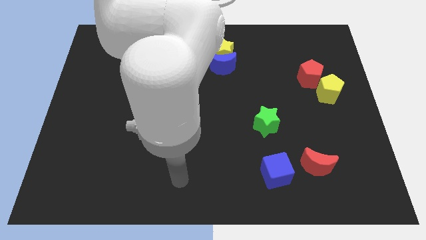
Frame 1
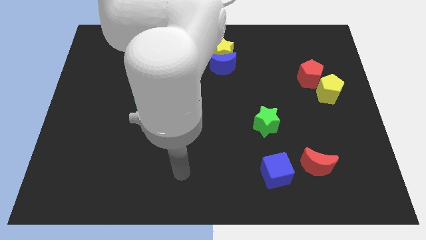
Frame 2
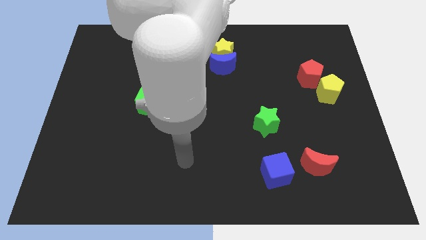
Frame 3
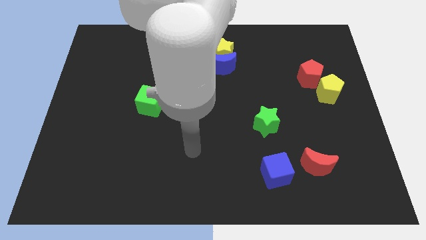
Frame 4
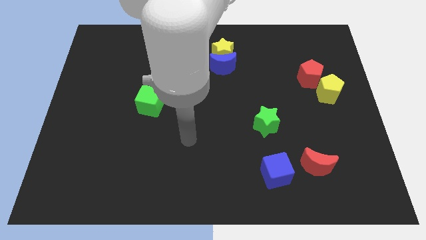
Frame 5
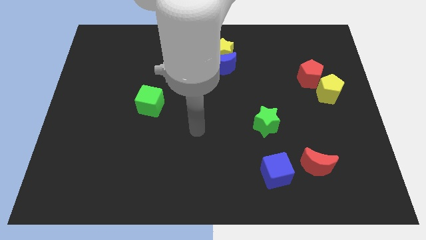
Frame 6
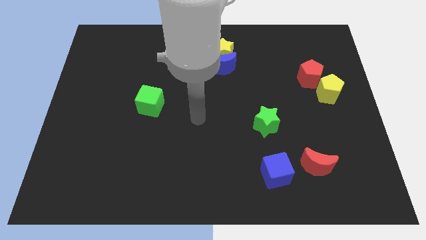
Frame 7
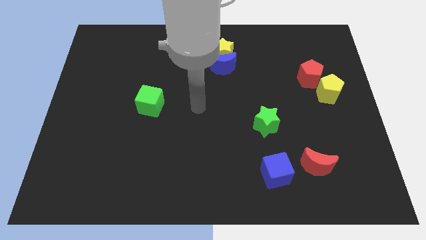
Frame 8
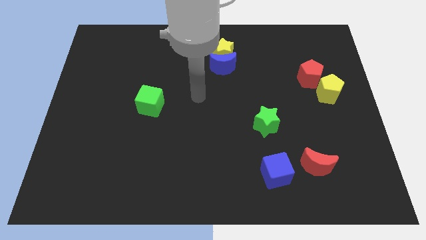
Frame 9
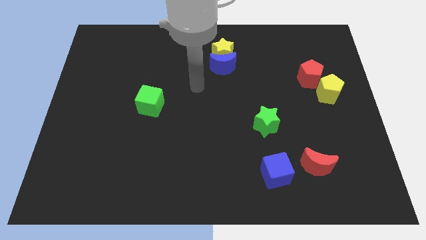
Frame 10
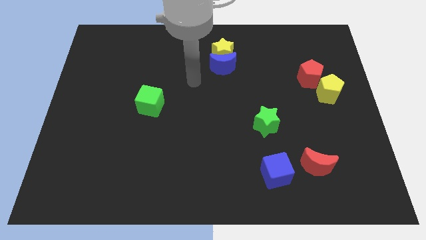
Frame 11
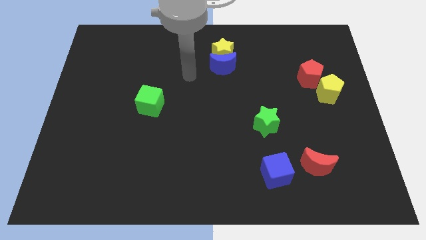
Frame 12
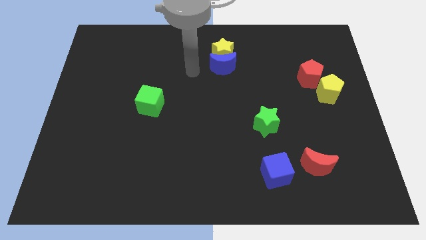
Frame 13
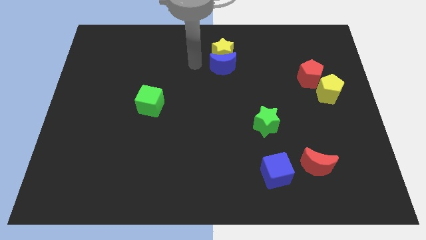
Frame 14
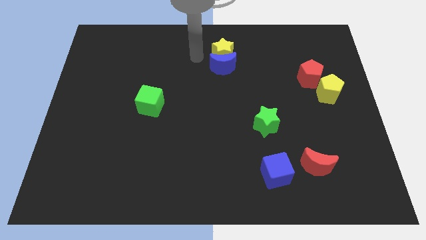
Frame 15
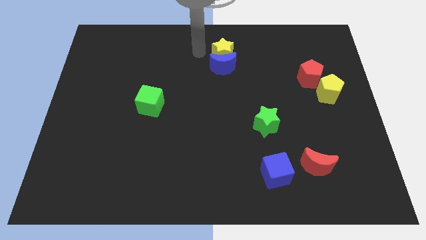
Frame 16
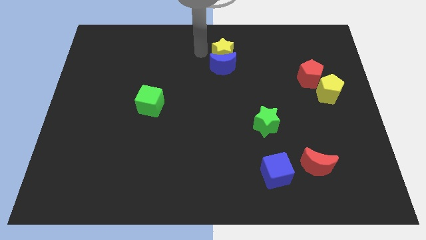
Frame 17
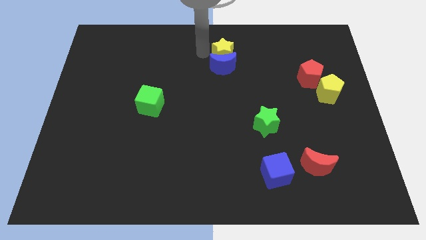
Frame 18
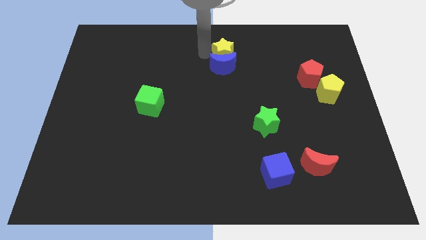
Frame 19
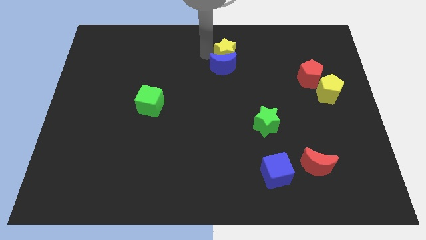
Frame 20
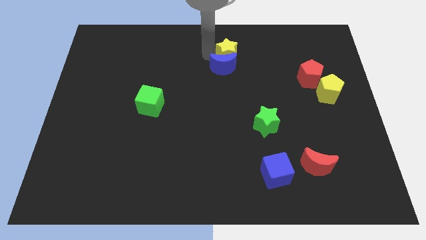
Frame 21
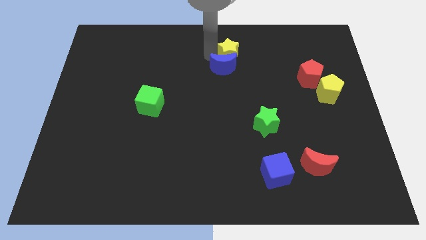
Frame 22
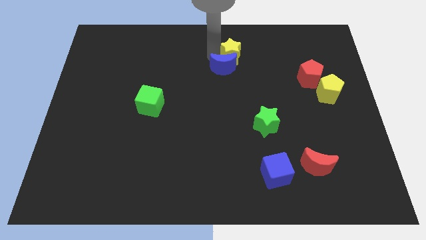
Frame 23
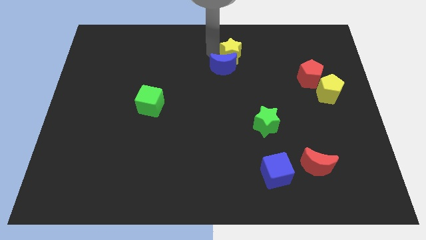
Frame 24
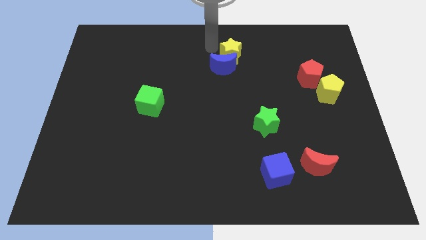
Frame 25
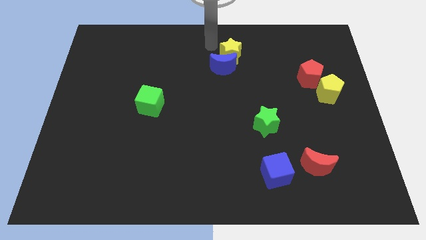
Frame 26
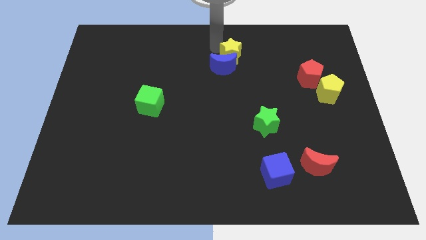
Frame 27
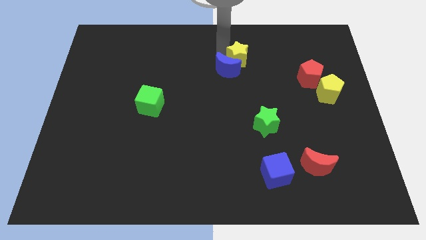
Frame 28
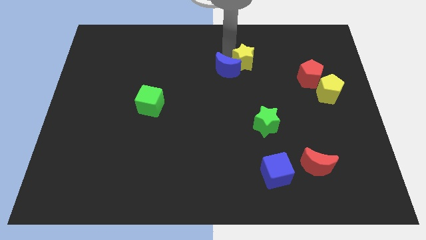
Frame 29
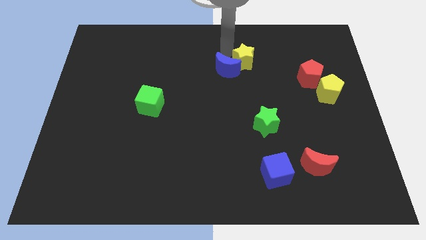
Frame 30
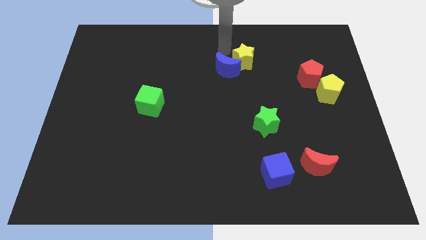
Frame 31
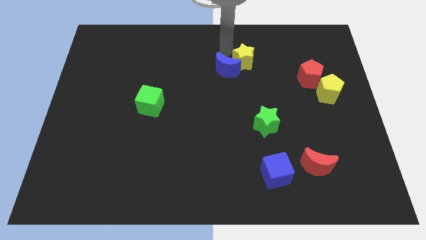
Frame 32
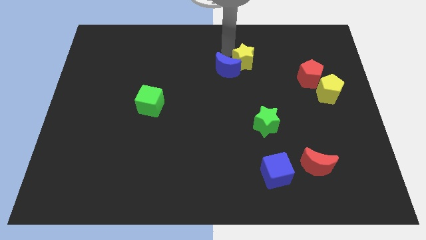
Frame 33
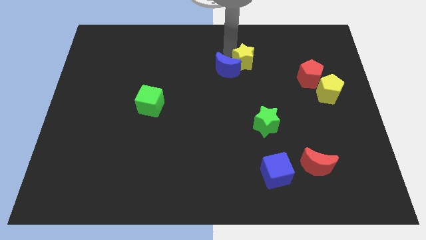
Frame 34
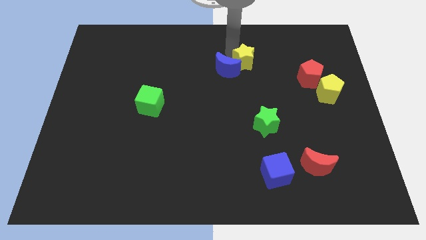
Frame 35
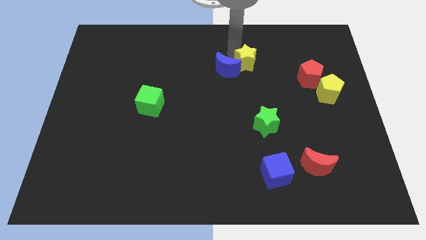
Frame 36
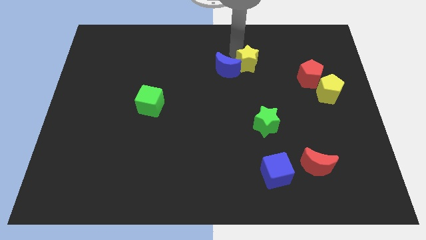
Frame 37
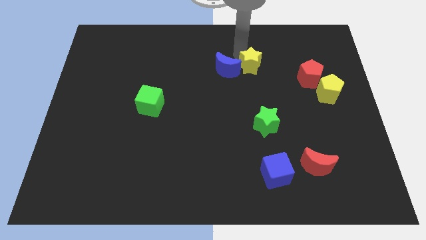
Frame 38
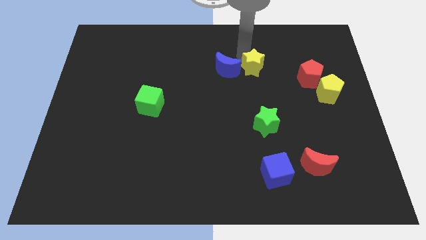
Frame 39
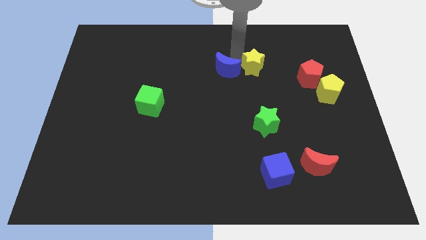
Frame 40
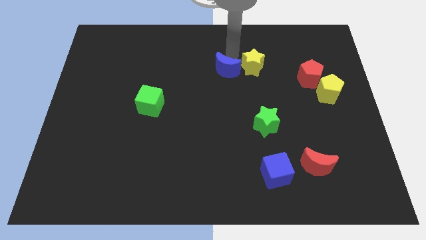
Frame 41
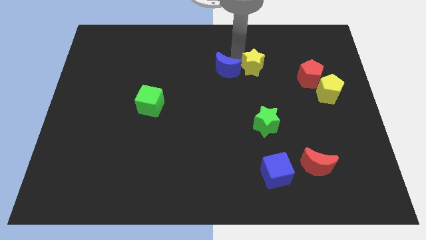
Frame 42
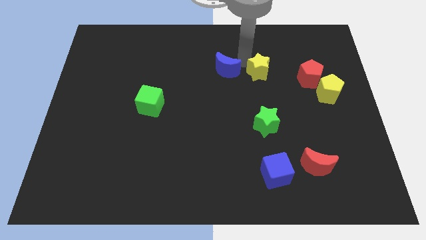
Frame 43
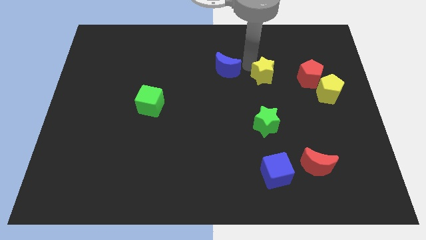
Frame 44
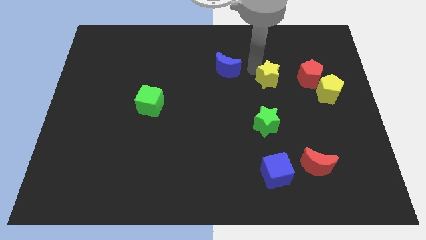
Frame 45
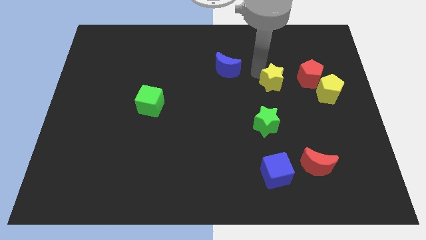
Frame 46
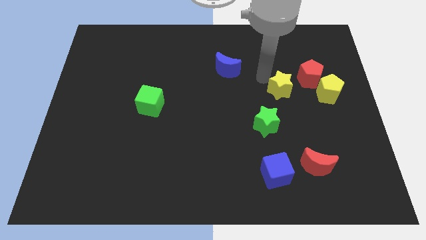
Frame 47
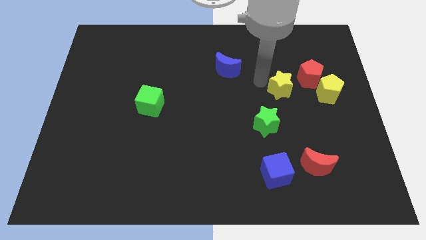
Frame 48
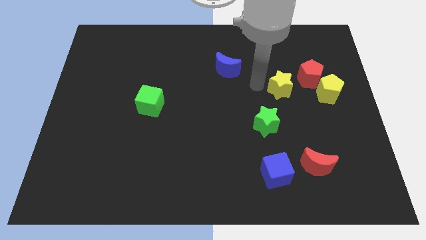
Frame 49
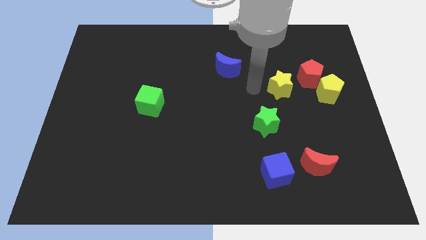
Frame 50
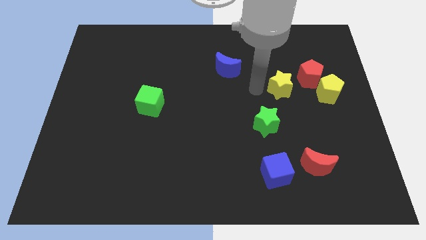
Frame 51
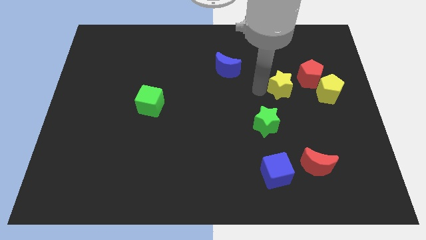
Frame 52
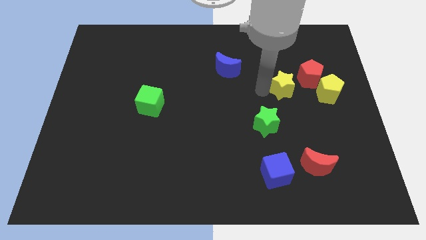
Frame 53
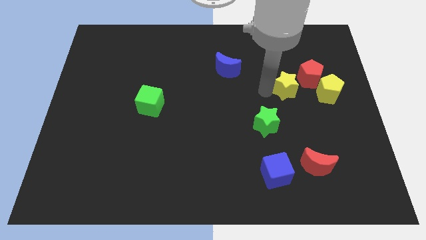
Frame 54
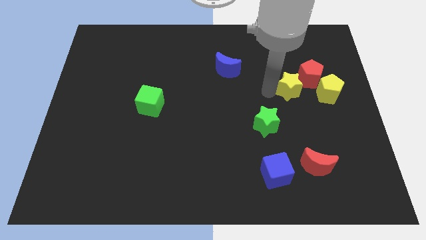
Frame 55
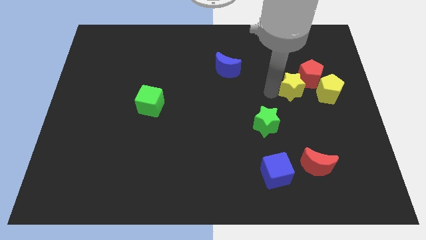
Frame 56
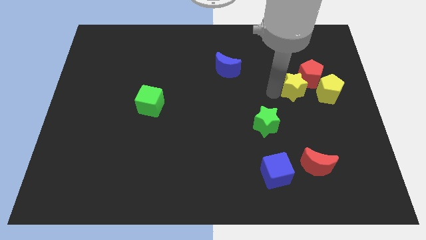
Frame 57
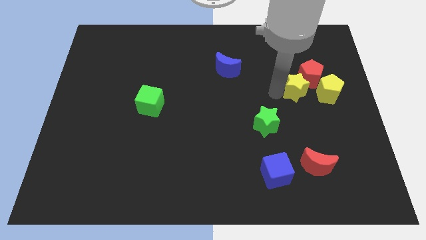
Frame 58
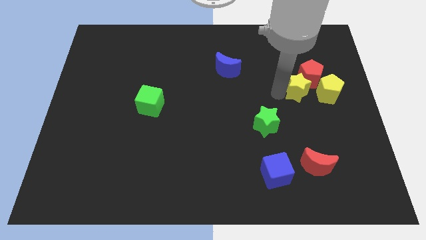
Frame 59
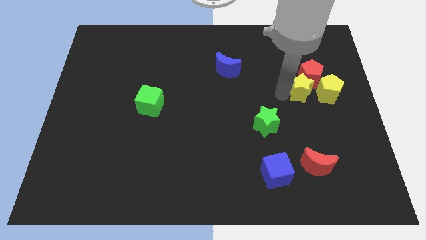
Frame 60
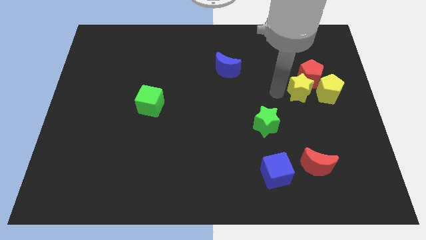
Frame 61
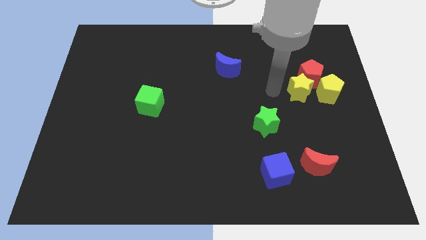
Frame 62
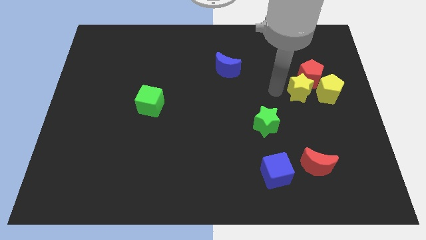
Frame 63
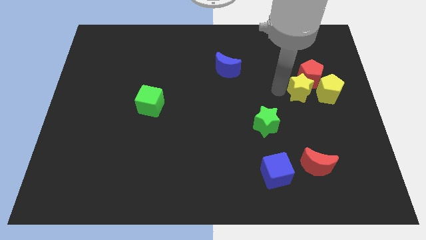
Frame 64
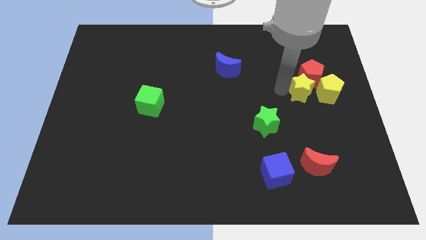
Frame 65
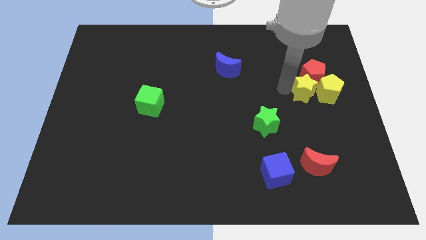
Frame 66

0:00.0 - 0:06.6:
put the yellow star close to the yellow pentagon

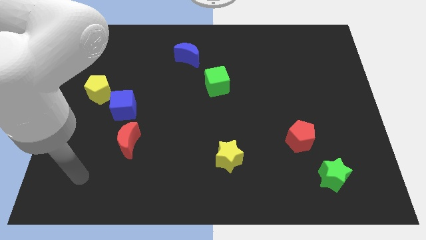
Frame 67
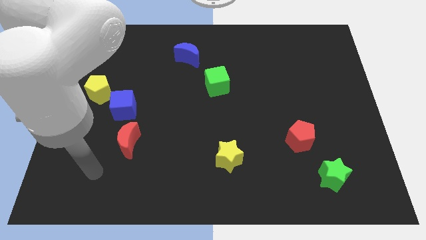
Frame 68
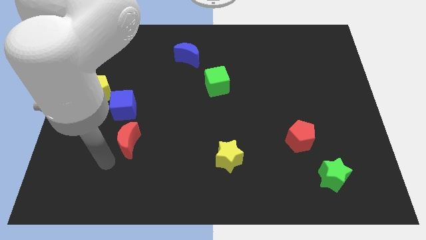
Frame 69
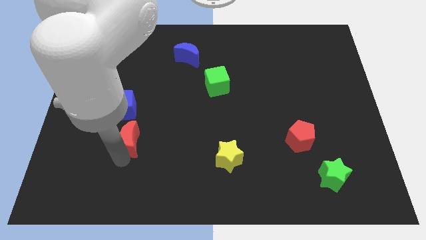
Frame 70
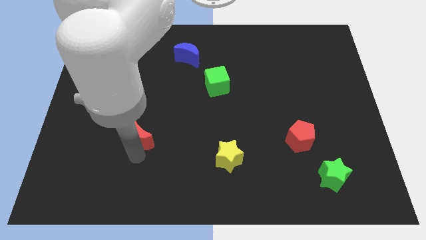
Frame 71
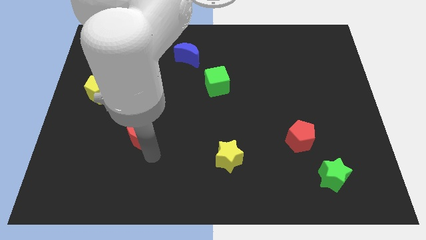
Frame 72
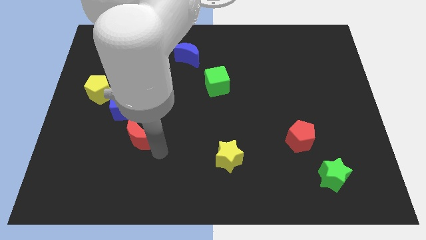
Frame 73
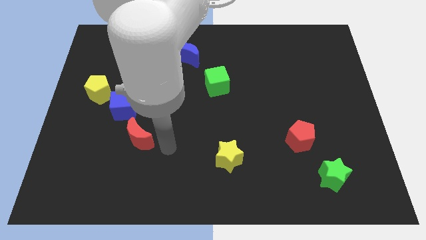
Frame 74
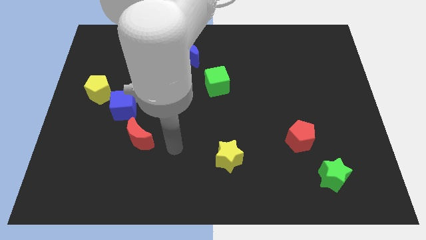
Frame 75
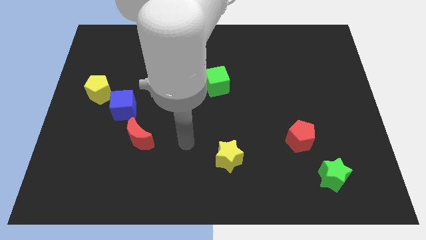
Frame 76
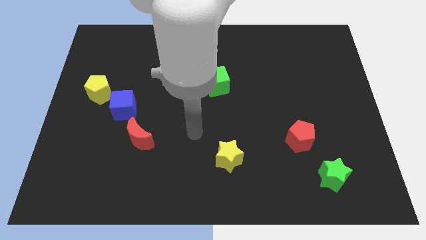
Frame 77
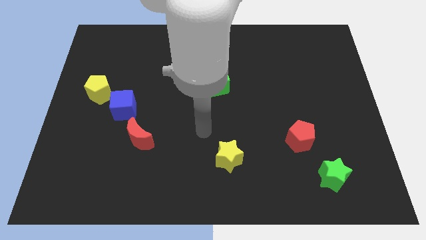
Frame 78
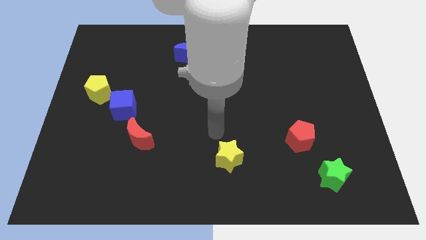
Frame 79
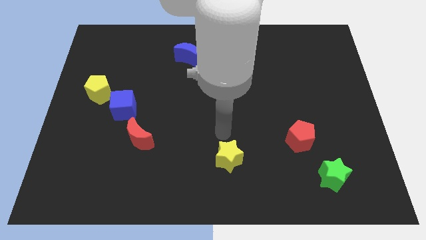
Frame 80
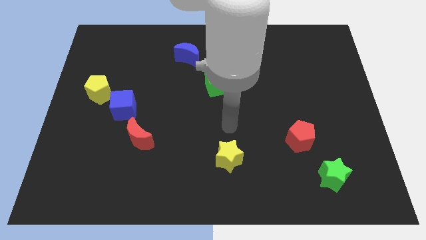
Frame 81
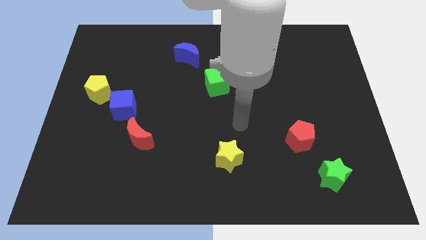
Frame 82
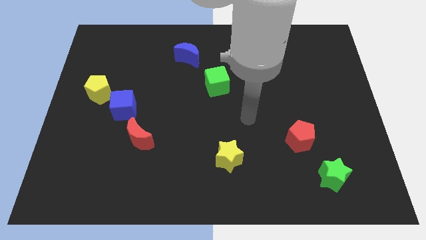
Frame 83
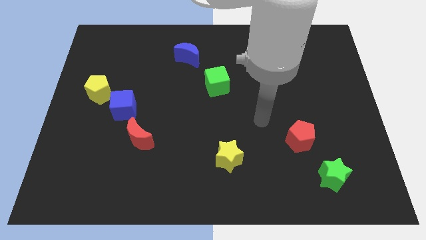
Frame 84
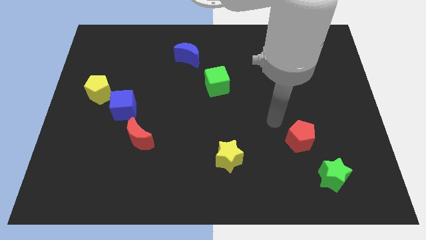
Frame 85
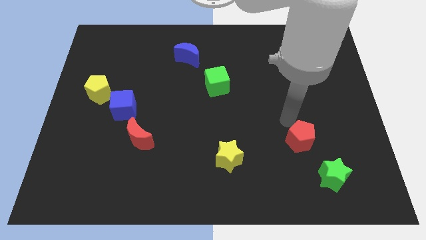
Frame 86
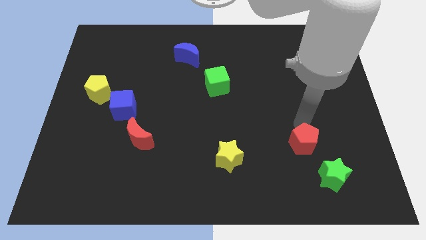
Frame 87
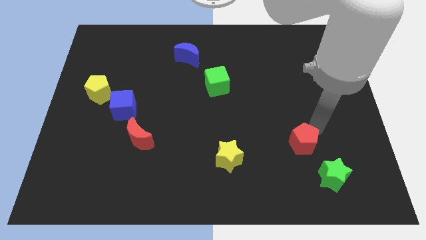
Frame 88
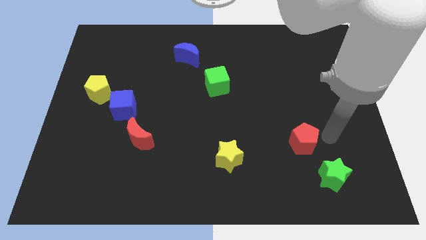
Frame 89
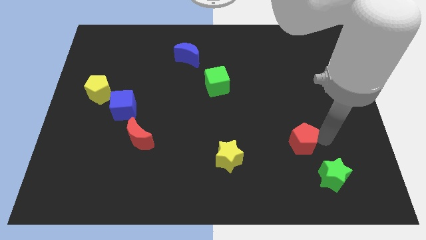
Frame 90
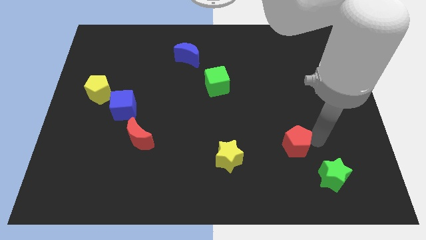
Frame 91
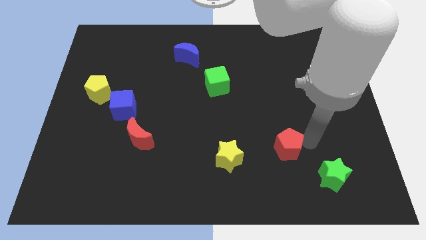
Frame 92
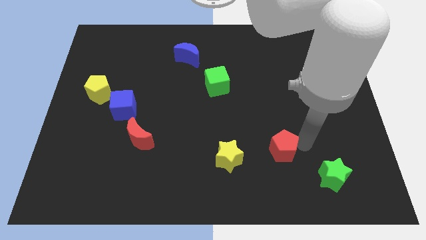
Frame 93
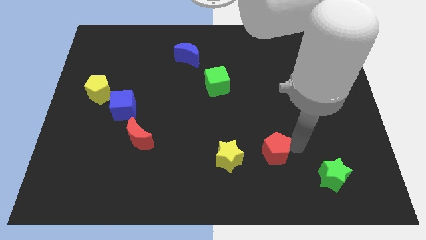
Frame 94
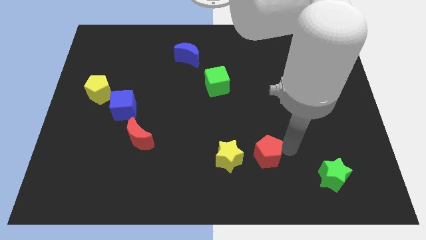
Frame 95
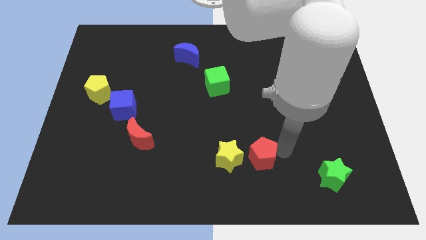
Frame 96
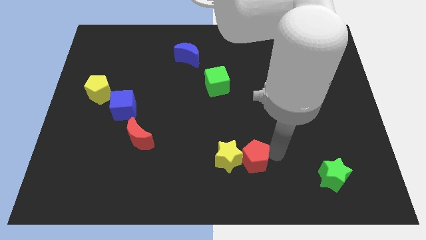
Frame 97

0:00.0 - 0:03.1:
slide the red pentagon towards the yellow star
